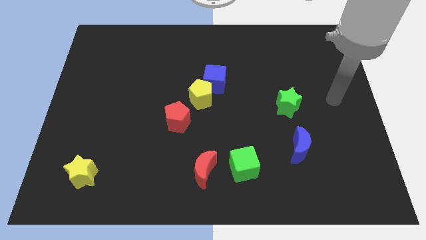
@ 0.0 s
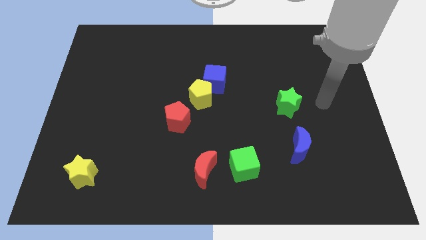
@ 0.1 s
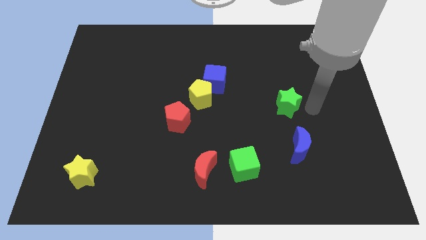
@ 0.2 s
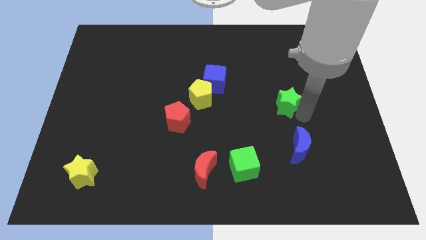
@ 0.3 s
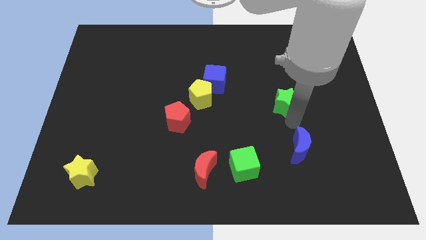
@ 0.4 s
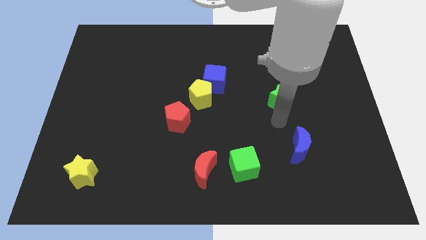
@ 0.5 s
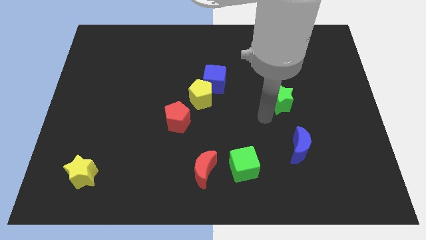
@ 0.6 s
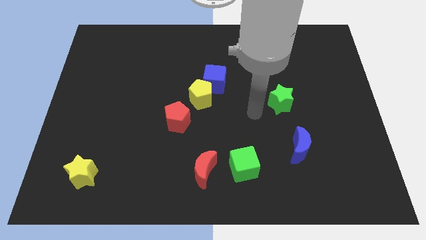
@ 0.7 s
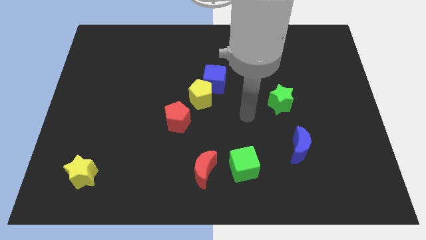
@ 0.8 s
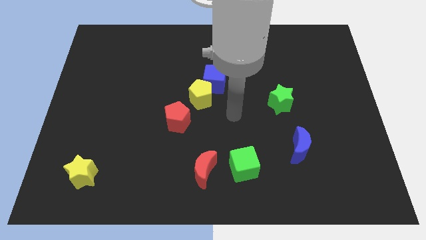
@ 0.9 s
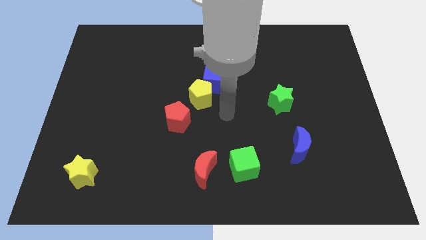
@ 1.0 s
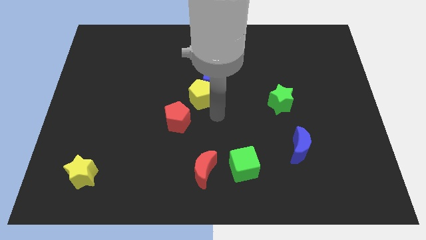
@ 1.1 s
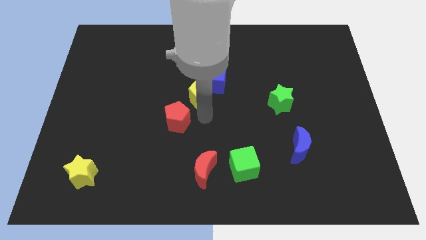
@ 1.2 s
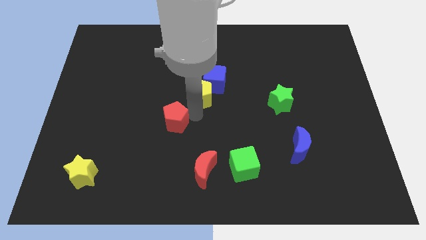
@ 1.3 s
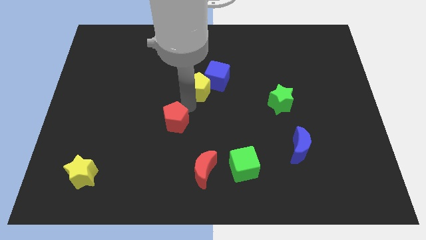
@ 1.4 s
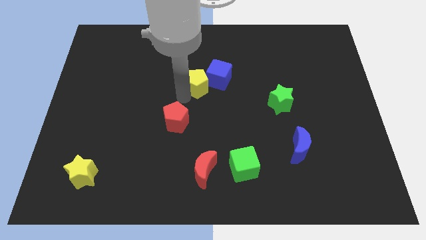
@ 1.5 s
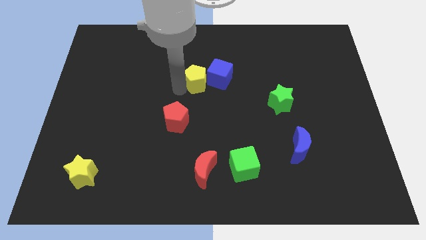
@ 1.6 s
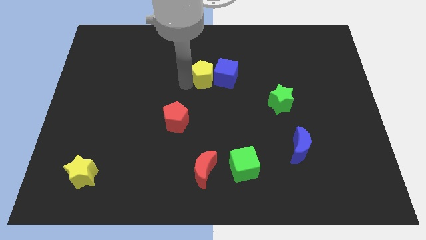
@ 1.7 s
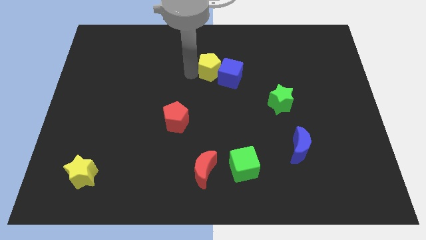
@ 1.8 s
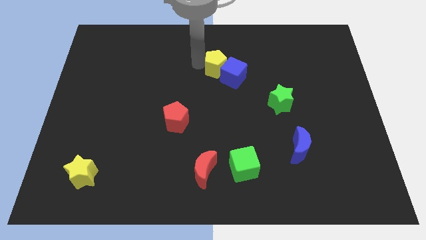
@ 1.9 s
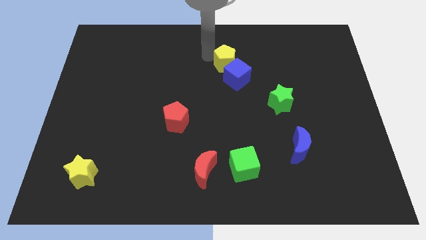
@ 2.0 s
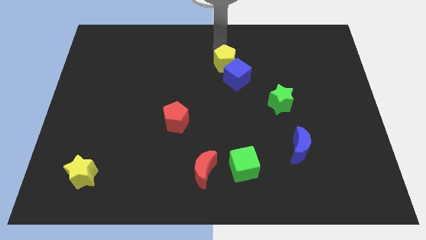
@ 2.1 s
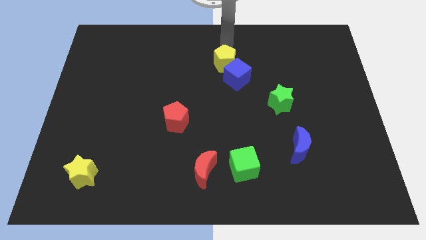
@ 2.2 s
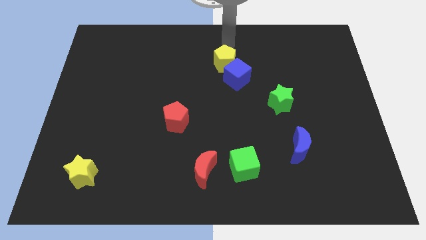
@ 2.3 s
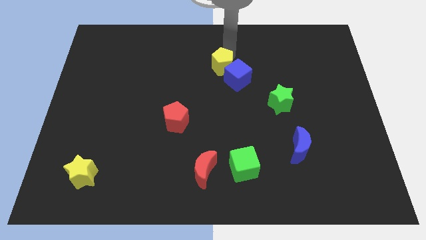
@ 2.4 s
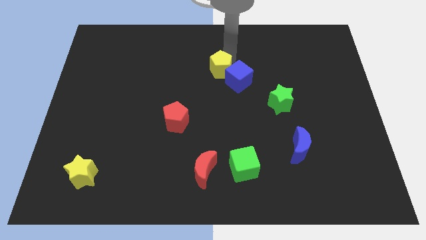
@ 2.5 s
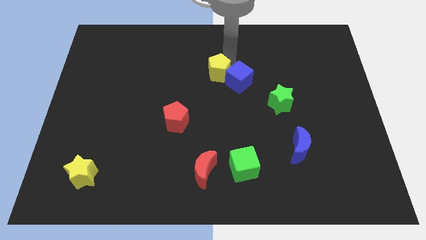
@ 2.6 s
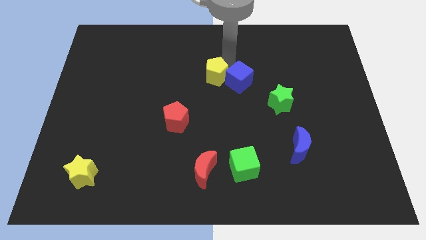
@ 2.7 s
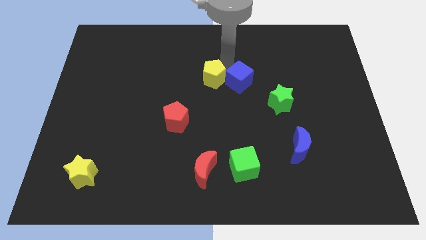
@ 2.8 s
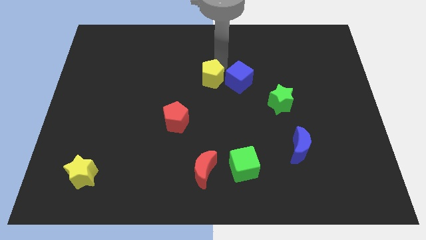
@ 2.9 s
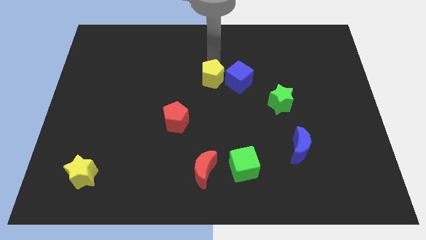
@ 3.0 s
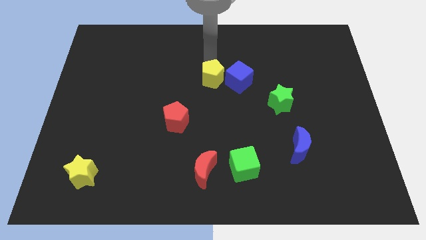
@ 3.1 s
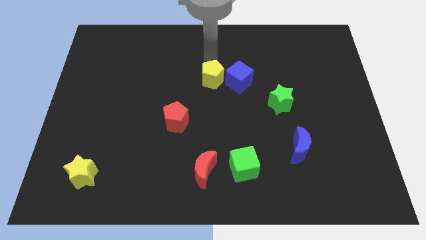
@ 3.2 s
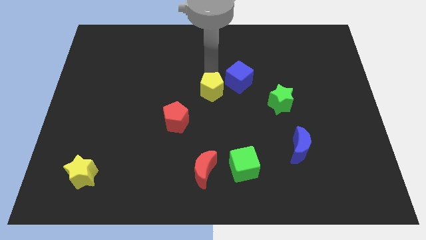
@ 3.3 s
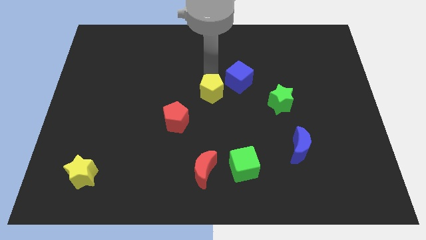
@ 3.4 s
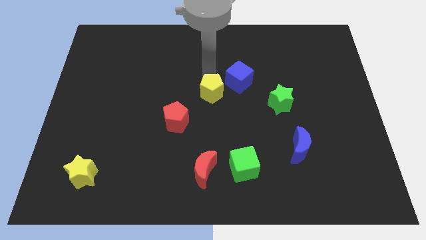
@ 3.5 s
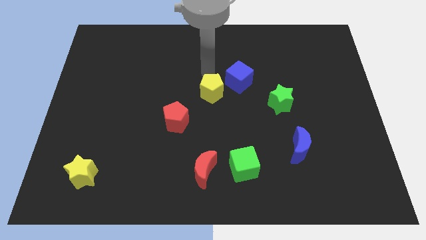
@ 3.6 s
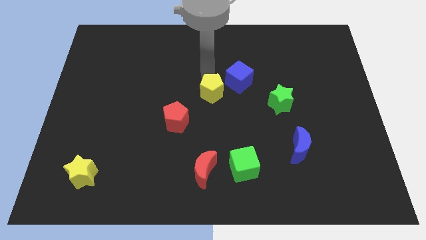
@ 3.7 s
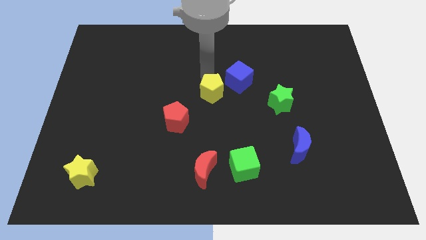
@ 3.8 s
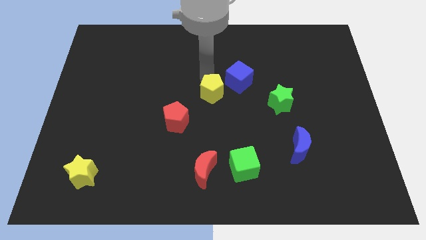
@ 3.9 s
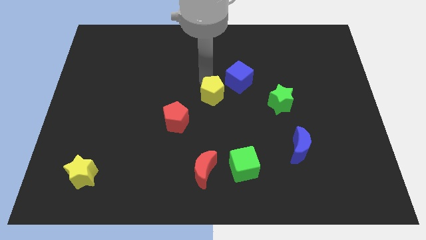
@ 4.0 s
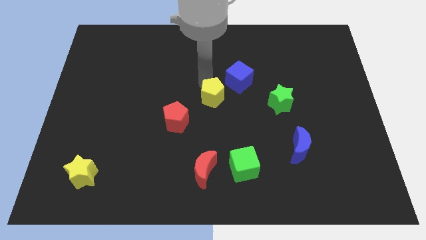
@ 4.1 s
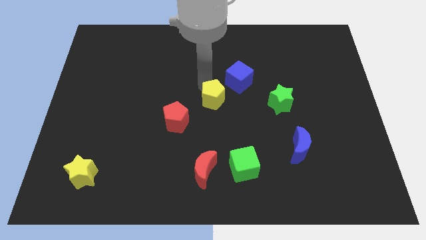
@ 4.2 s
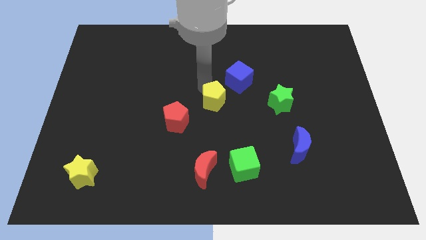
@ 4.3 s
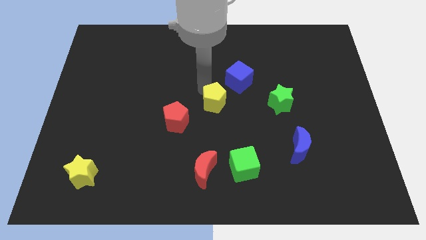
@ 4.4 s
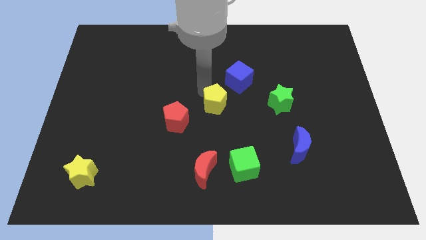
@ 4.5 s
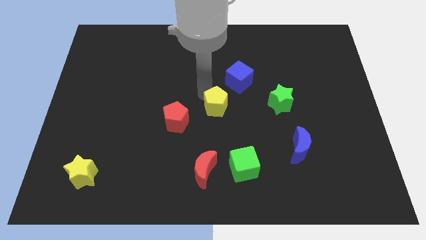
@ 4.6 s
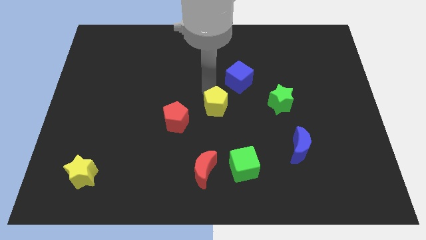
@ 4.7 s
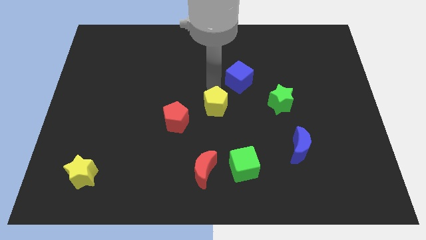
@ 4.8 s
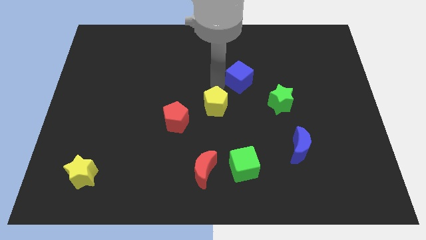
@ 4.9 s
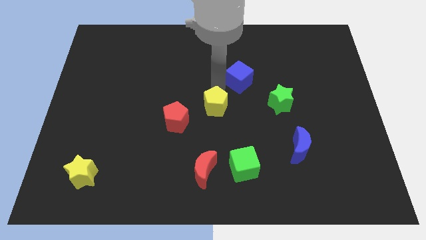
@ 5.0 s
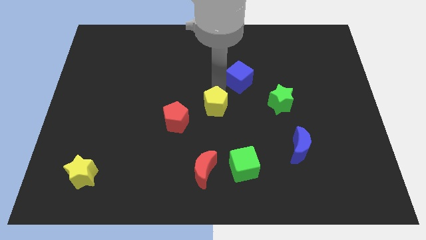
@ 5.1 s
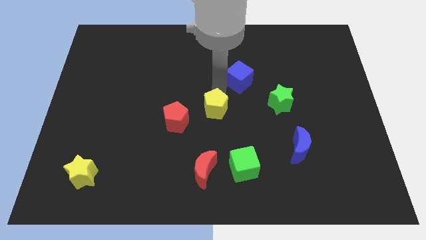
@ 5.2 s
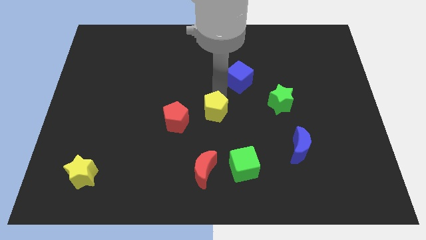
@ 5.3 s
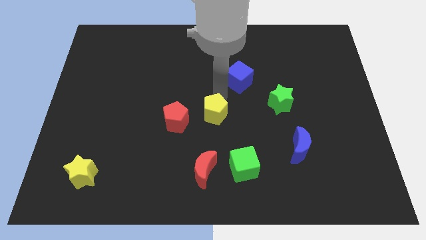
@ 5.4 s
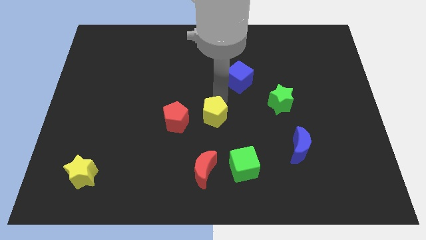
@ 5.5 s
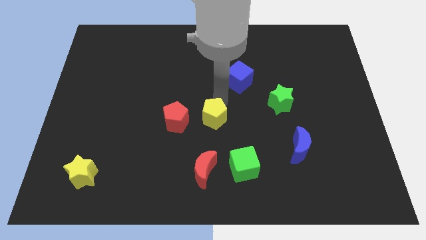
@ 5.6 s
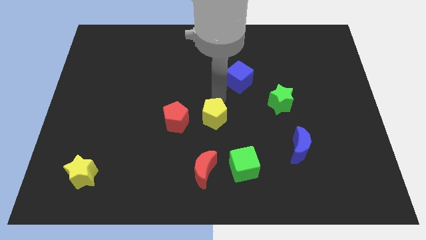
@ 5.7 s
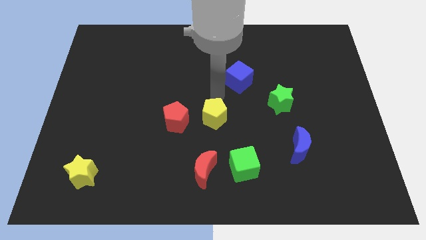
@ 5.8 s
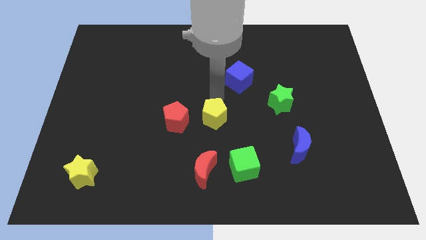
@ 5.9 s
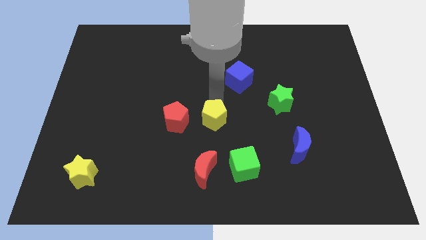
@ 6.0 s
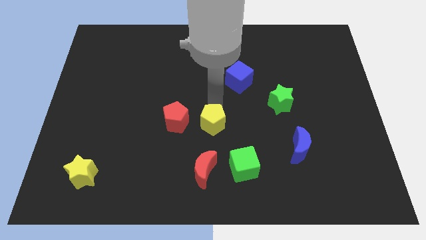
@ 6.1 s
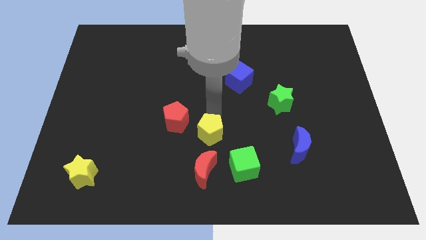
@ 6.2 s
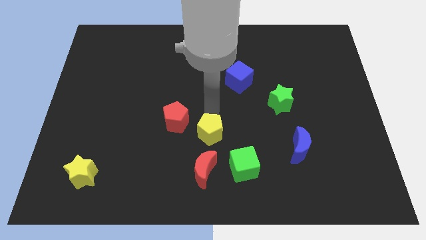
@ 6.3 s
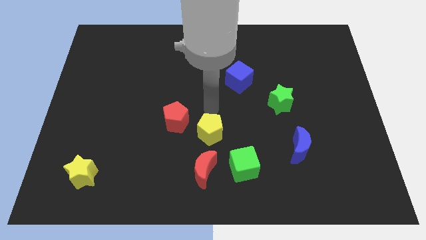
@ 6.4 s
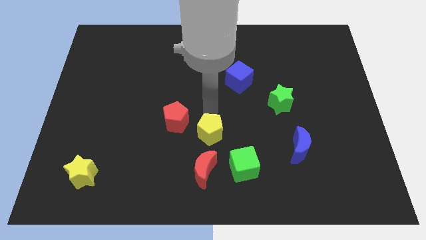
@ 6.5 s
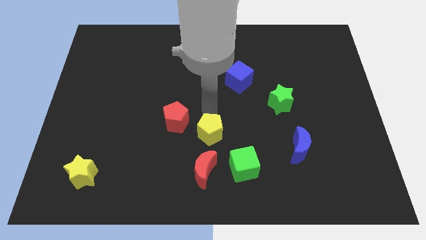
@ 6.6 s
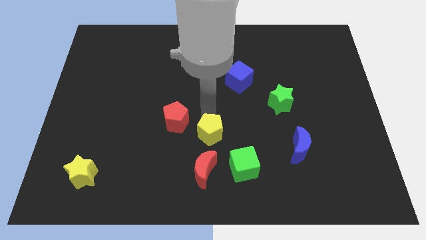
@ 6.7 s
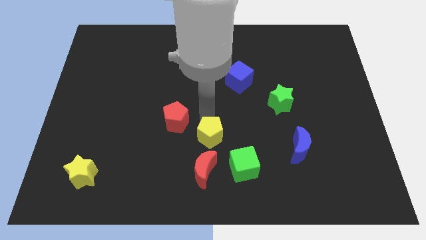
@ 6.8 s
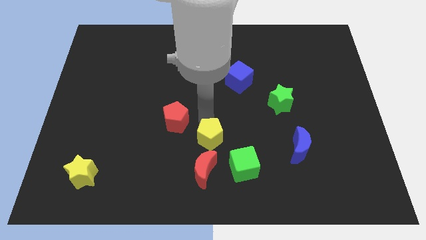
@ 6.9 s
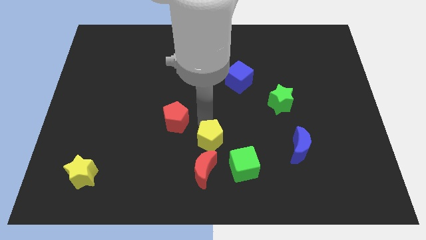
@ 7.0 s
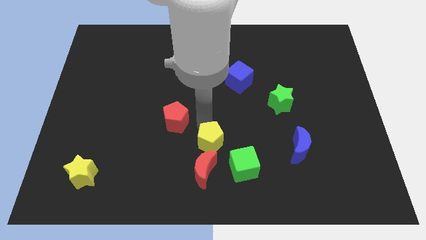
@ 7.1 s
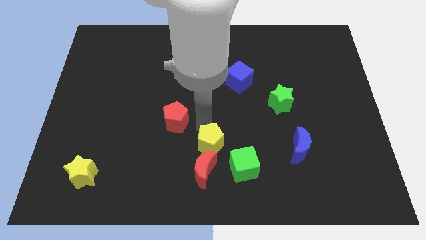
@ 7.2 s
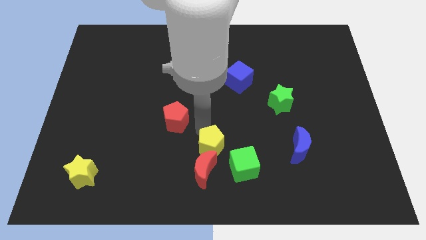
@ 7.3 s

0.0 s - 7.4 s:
slide the yellow pentagon to the red moon
